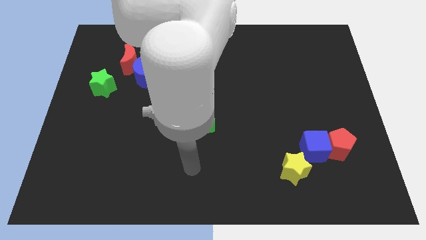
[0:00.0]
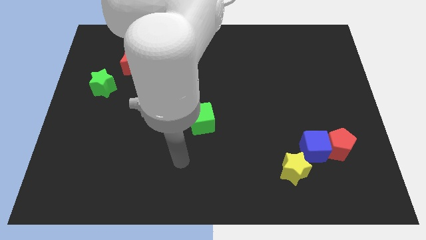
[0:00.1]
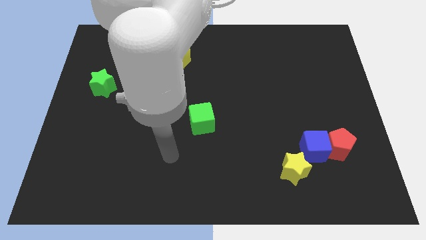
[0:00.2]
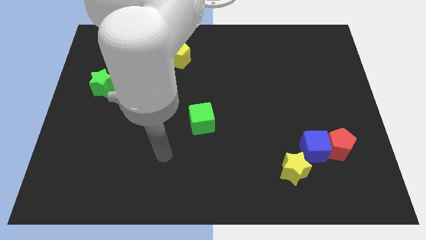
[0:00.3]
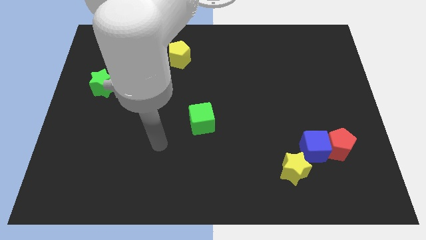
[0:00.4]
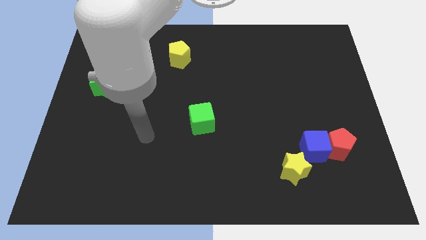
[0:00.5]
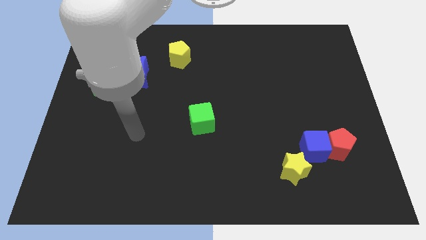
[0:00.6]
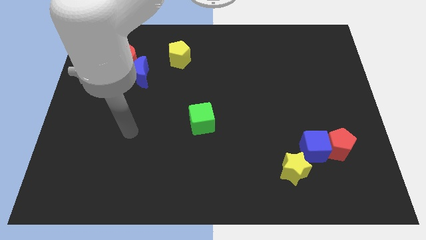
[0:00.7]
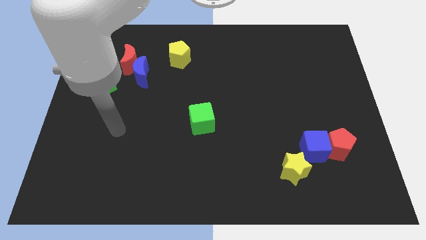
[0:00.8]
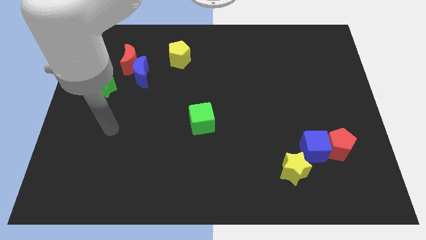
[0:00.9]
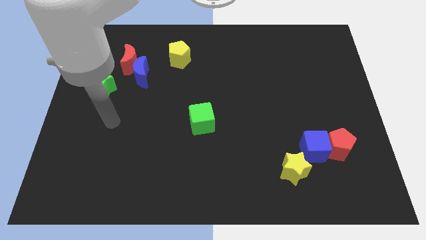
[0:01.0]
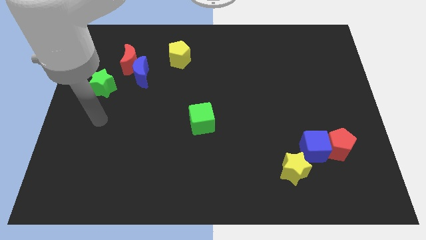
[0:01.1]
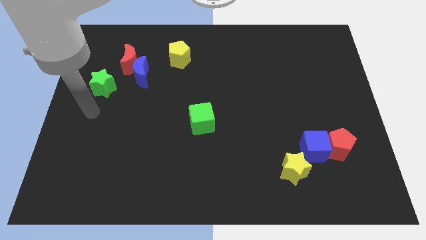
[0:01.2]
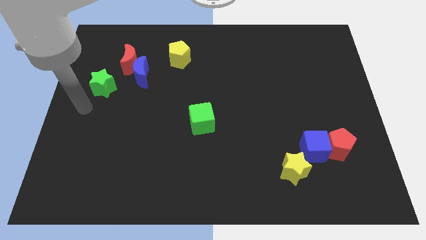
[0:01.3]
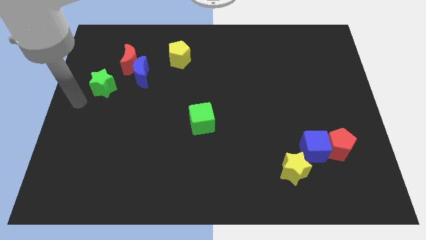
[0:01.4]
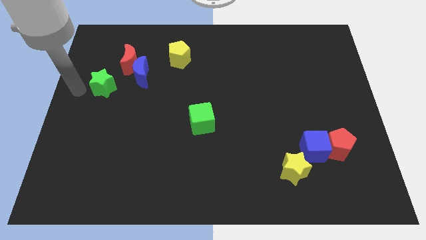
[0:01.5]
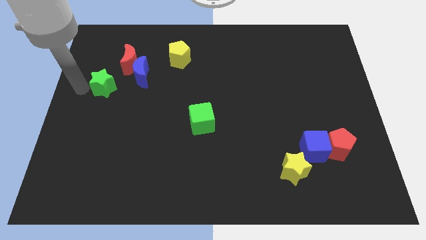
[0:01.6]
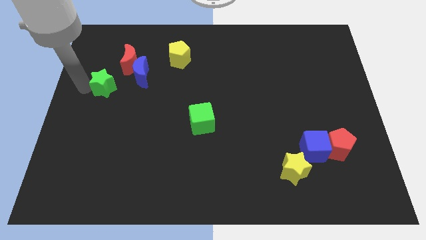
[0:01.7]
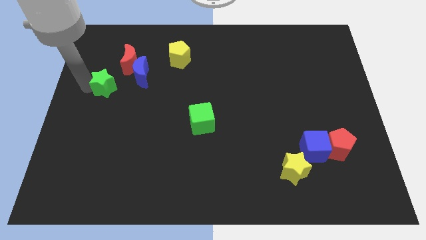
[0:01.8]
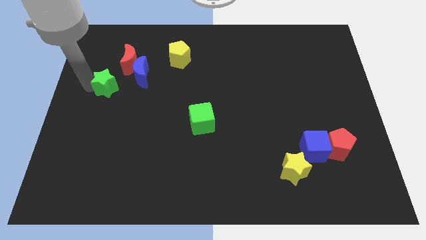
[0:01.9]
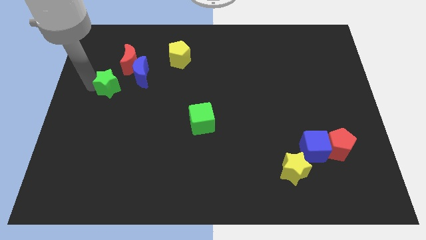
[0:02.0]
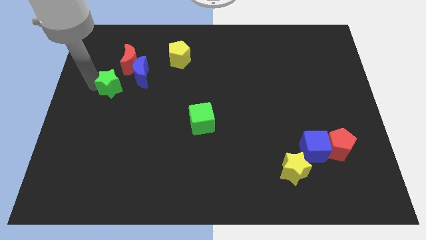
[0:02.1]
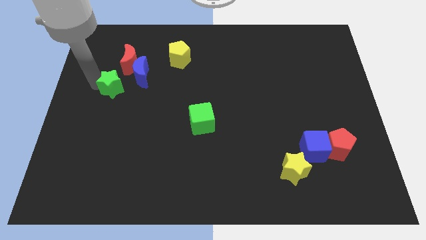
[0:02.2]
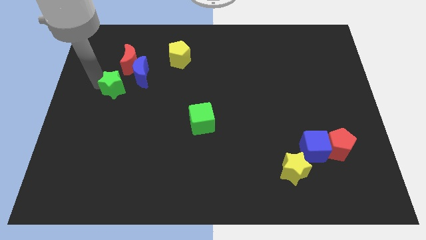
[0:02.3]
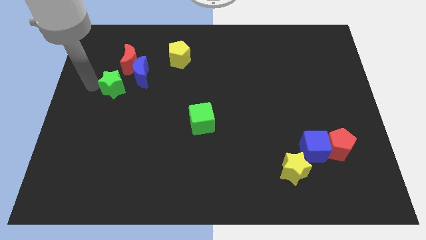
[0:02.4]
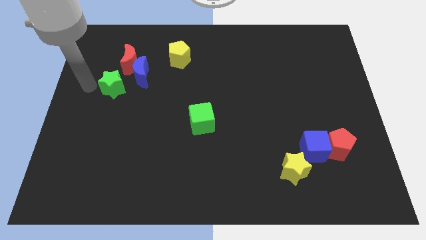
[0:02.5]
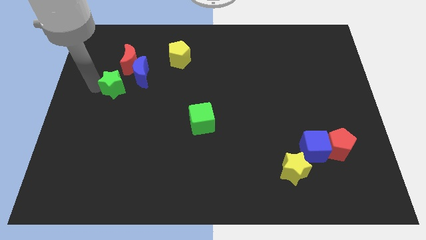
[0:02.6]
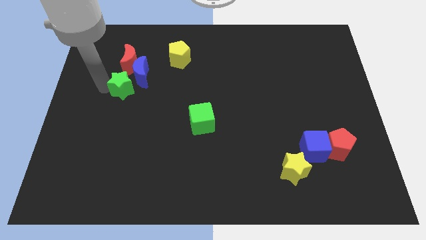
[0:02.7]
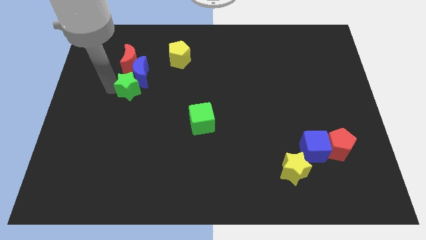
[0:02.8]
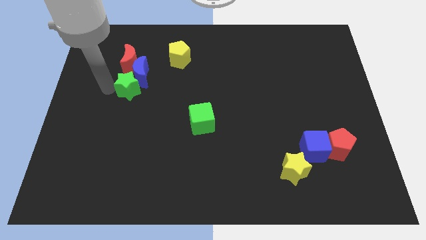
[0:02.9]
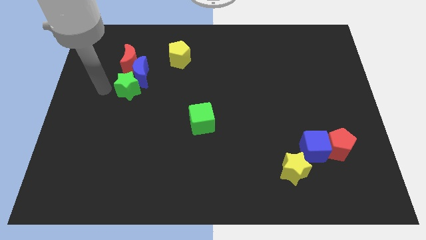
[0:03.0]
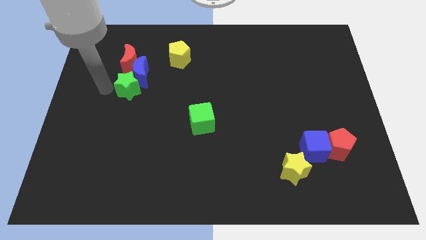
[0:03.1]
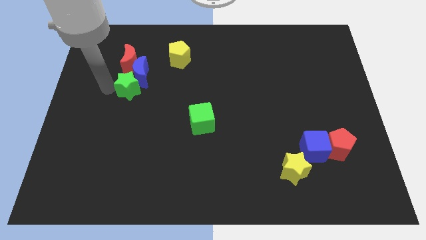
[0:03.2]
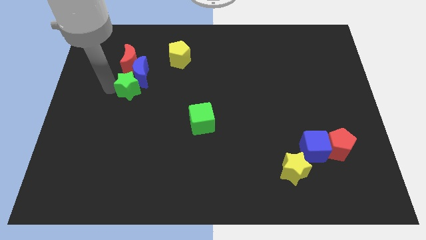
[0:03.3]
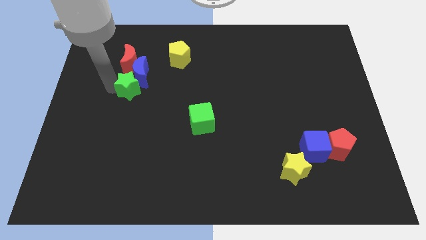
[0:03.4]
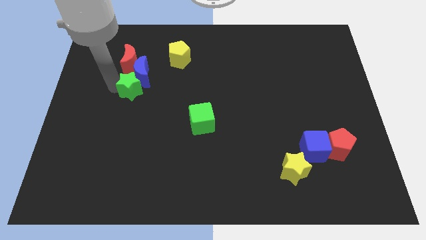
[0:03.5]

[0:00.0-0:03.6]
push the green star right a little bit

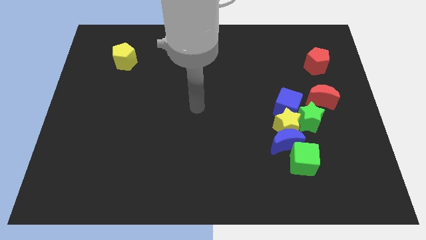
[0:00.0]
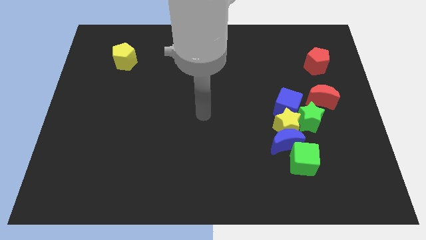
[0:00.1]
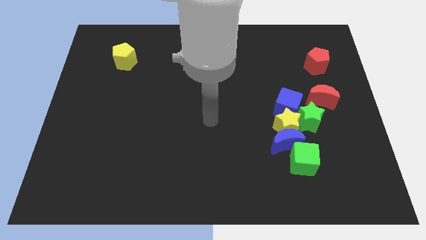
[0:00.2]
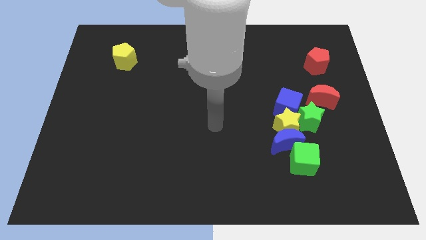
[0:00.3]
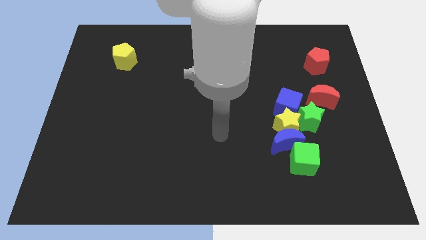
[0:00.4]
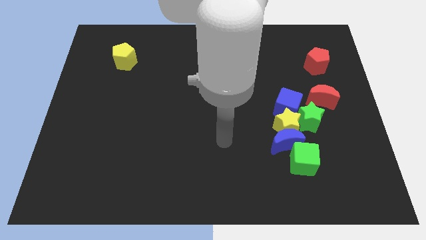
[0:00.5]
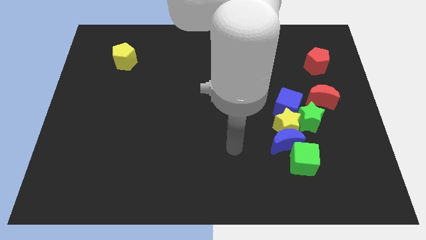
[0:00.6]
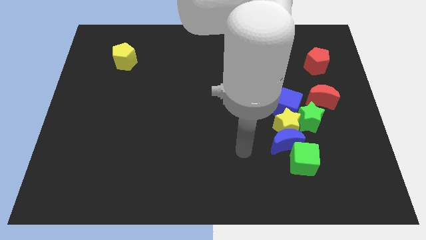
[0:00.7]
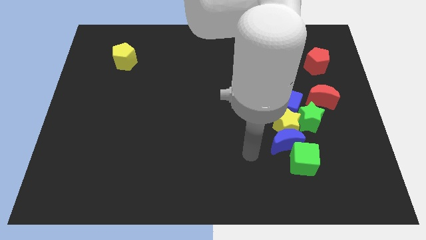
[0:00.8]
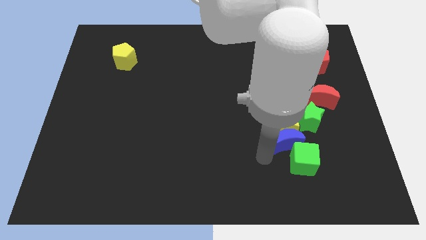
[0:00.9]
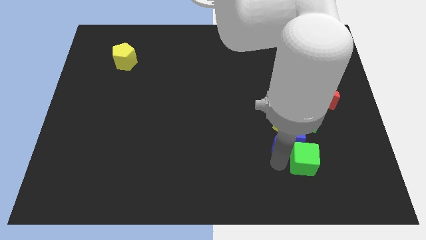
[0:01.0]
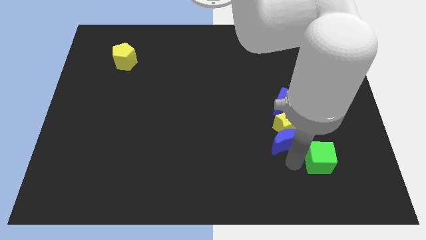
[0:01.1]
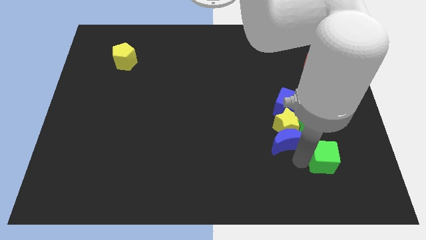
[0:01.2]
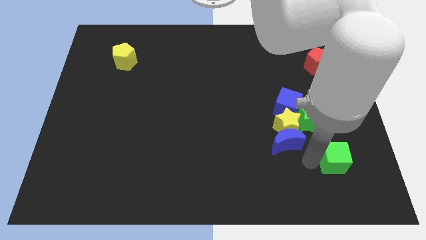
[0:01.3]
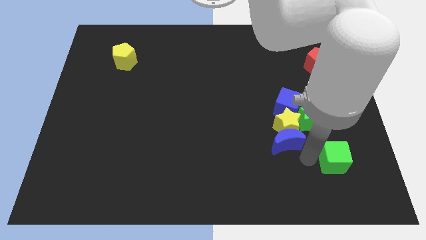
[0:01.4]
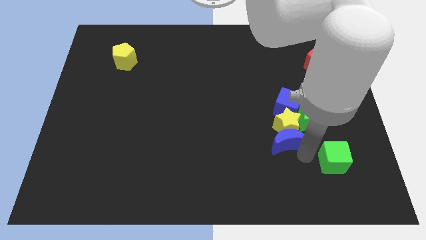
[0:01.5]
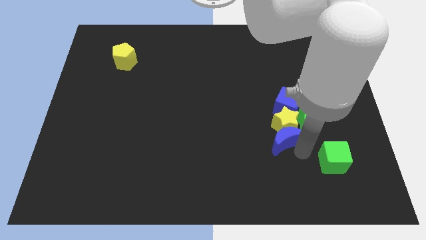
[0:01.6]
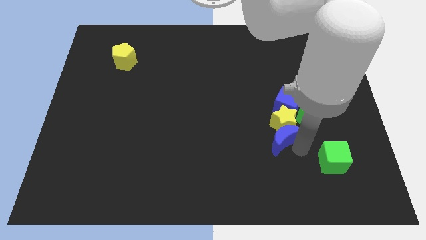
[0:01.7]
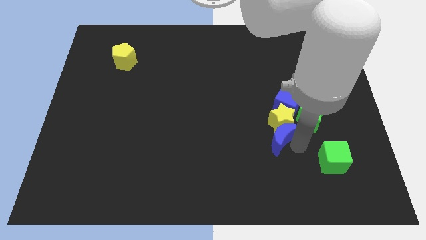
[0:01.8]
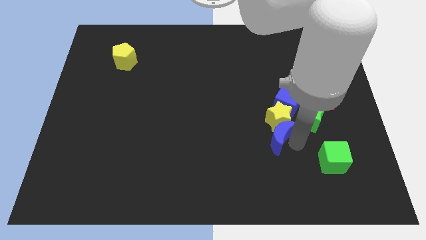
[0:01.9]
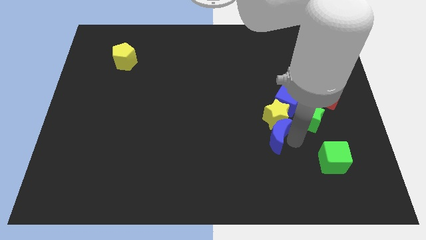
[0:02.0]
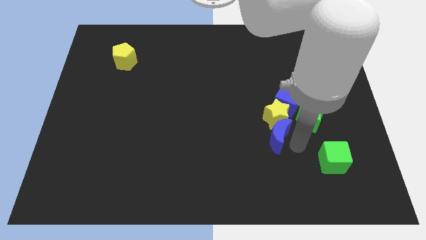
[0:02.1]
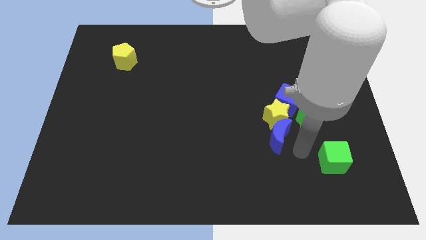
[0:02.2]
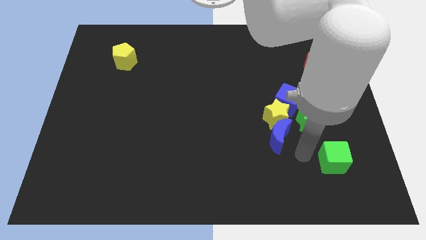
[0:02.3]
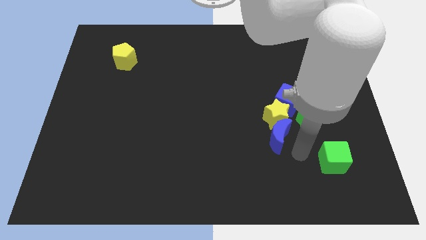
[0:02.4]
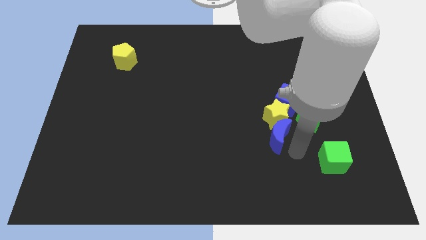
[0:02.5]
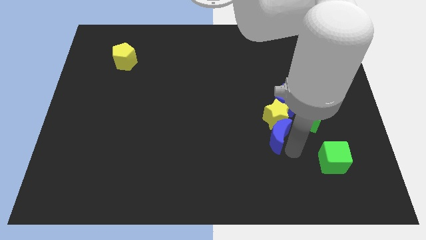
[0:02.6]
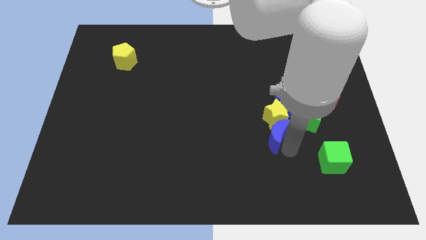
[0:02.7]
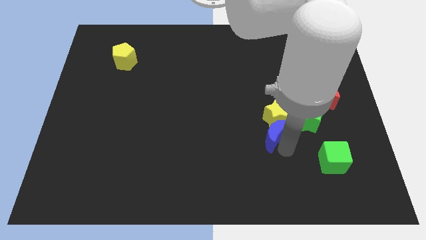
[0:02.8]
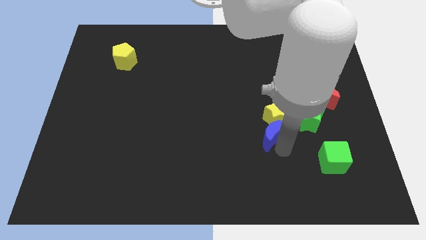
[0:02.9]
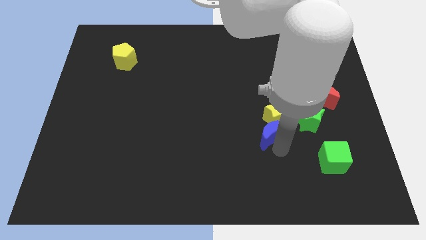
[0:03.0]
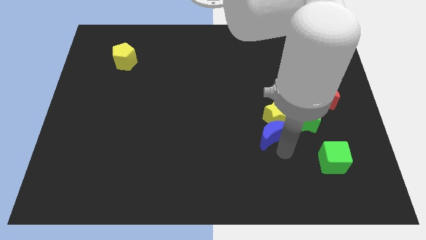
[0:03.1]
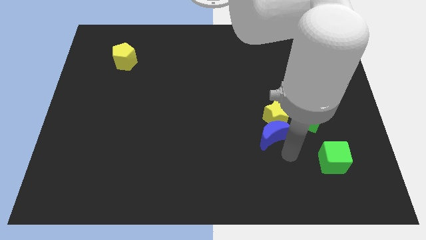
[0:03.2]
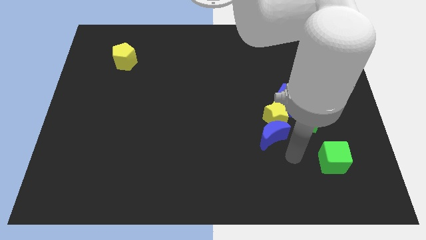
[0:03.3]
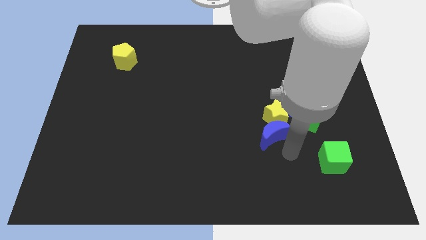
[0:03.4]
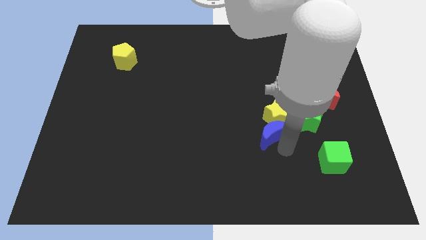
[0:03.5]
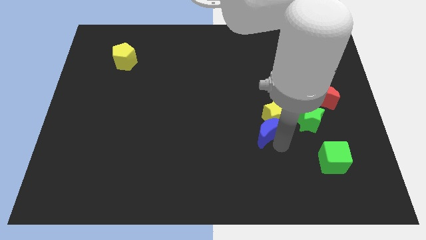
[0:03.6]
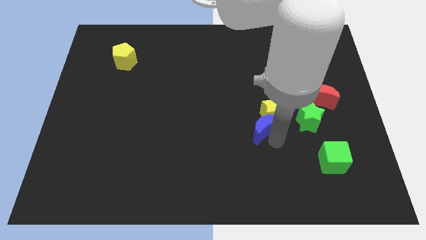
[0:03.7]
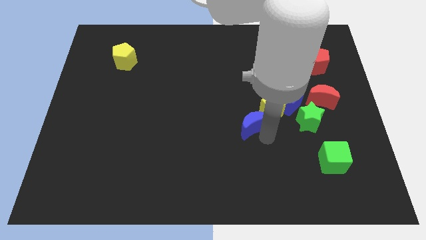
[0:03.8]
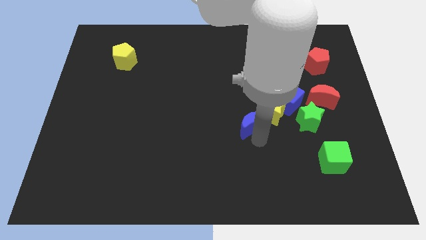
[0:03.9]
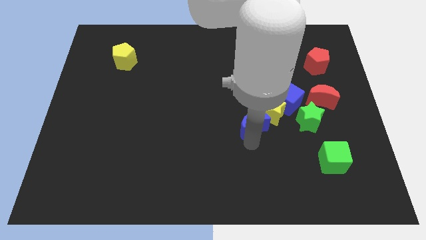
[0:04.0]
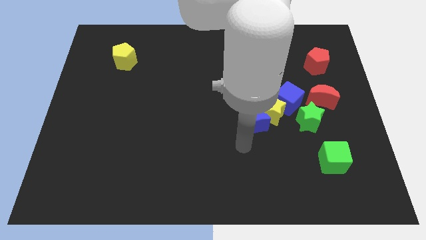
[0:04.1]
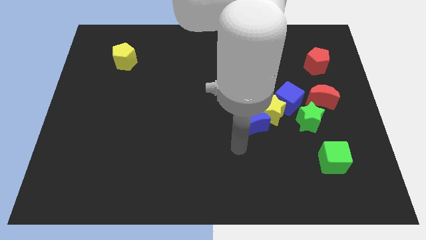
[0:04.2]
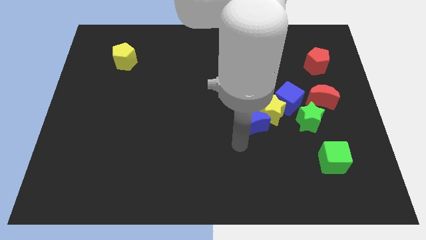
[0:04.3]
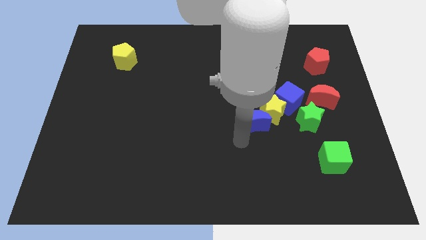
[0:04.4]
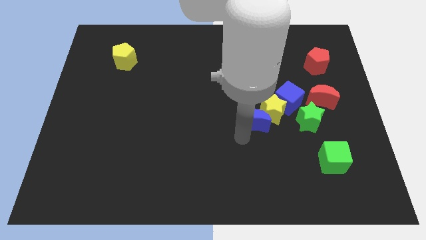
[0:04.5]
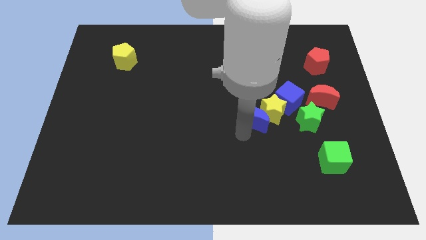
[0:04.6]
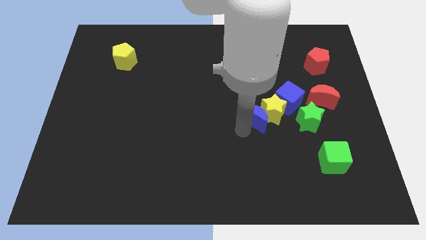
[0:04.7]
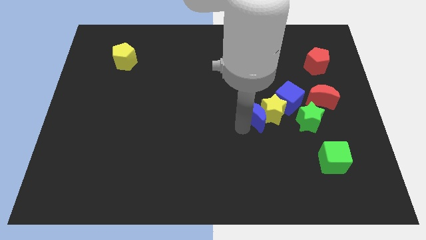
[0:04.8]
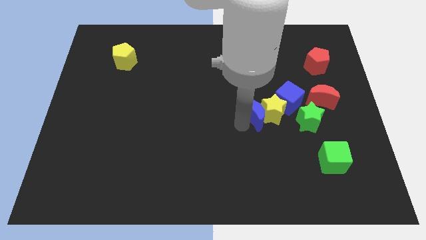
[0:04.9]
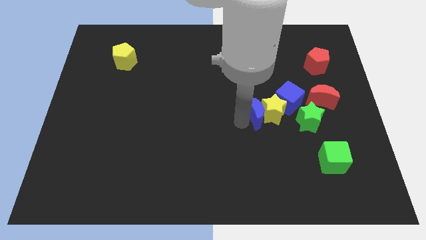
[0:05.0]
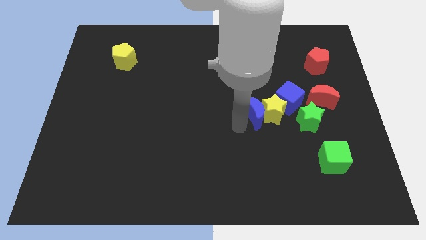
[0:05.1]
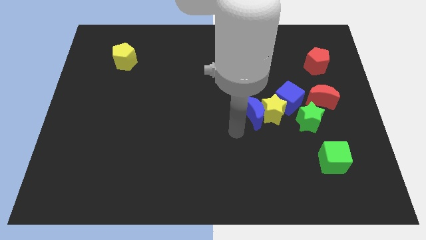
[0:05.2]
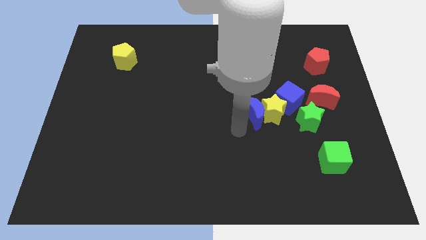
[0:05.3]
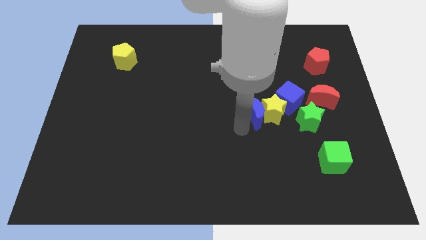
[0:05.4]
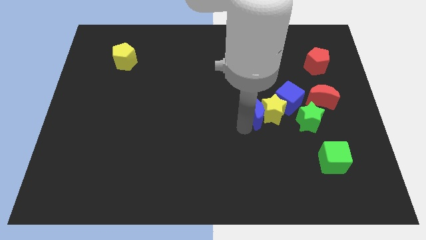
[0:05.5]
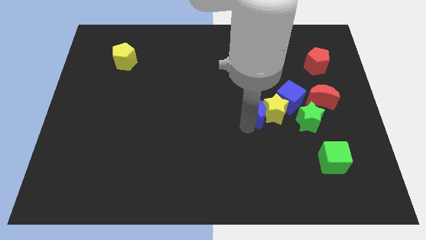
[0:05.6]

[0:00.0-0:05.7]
slide the blue moon up somewhat
